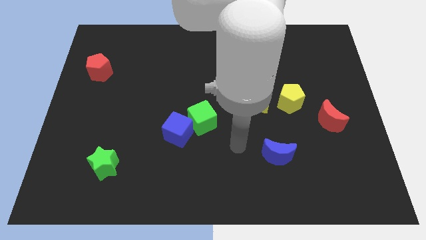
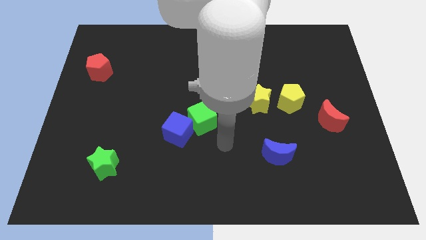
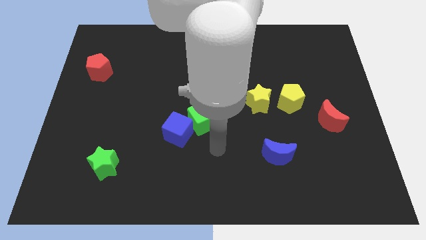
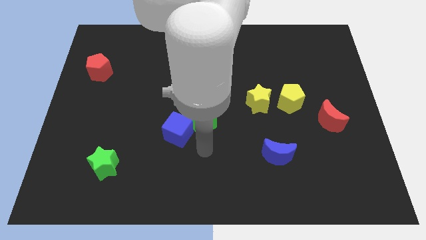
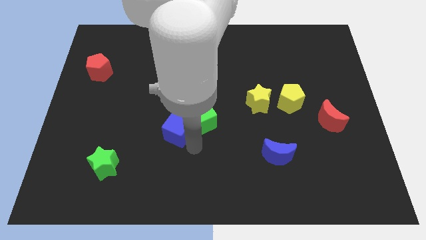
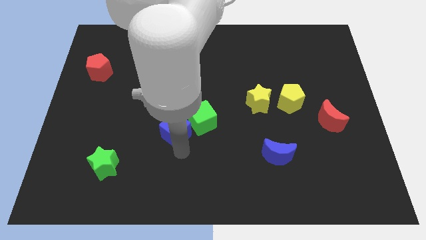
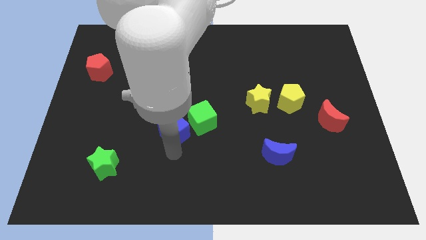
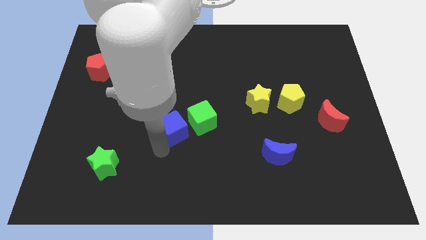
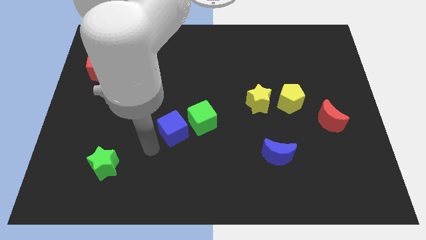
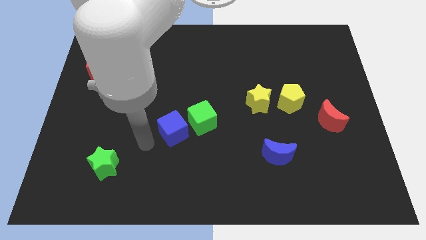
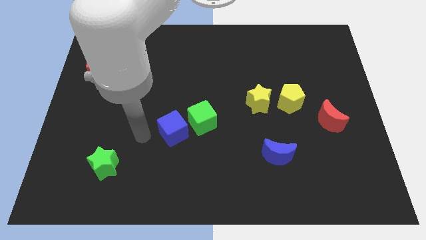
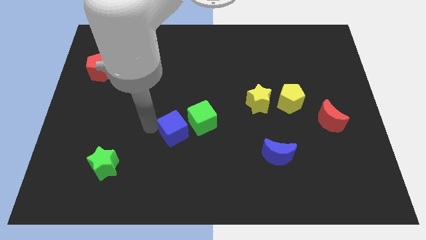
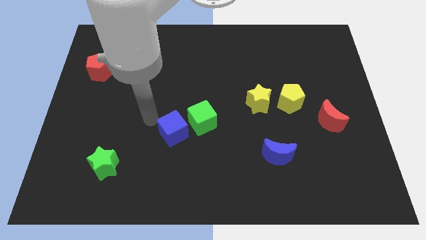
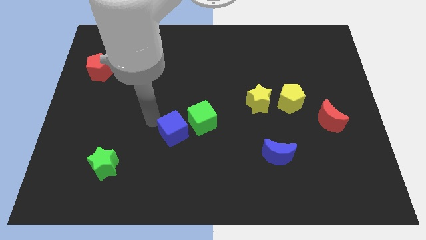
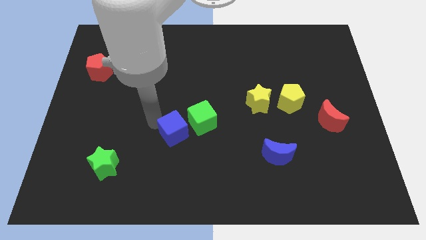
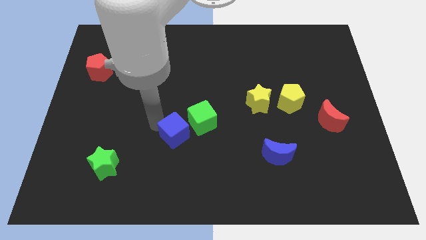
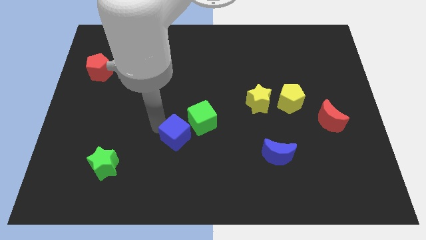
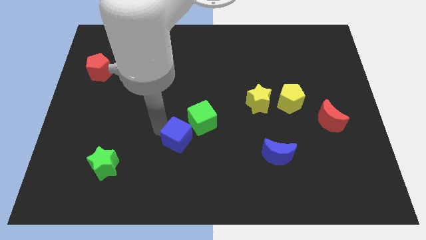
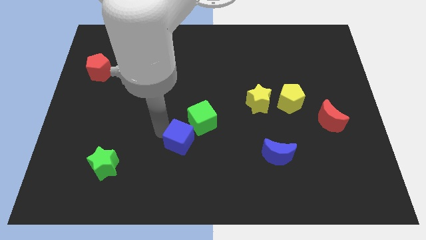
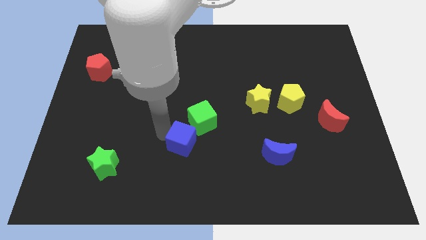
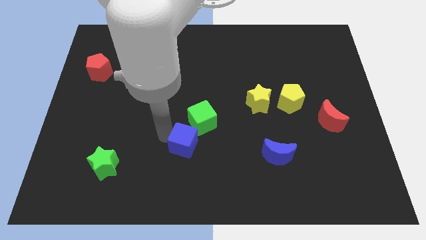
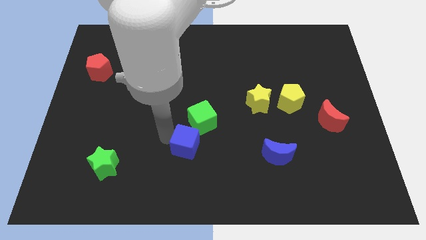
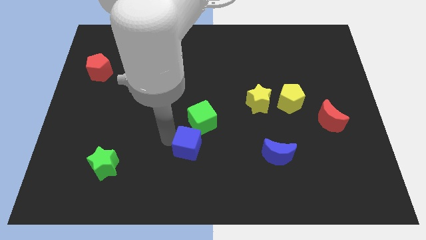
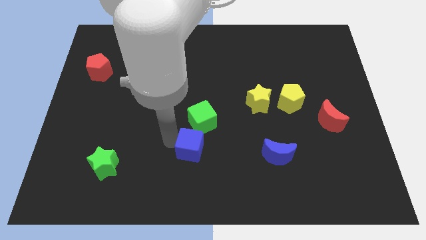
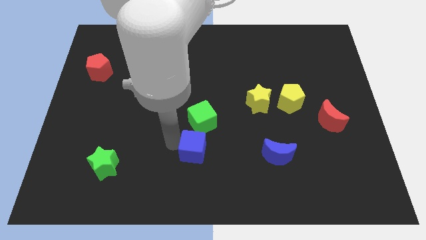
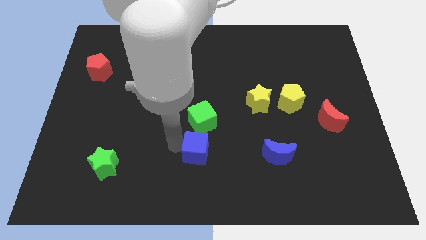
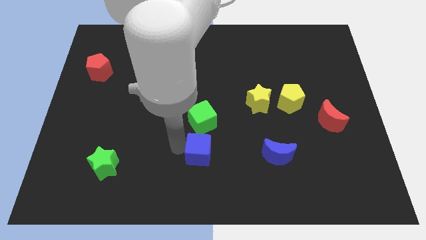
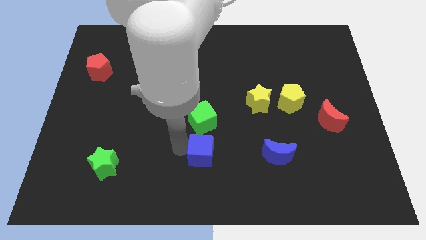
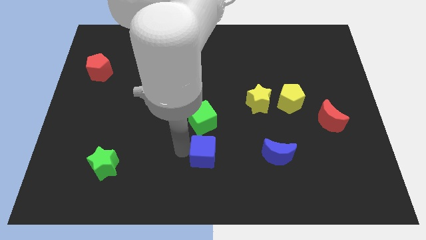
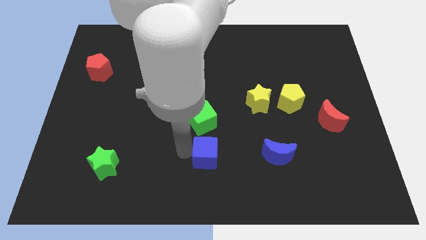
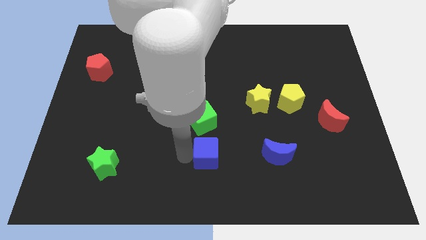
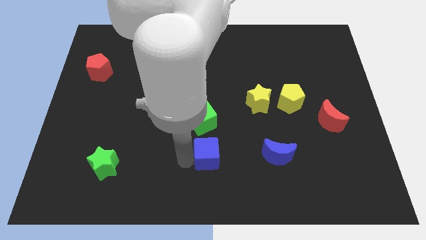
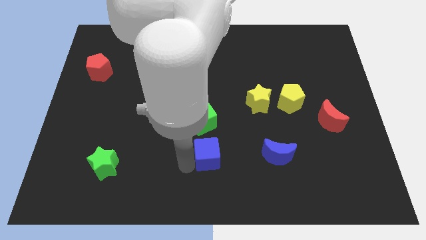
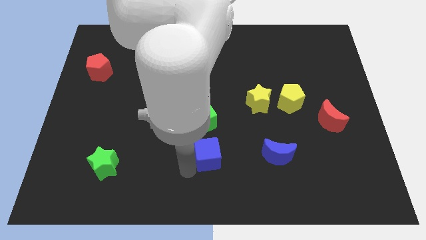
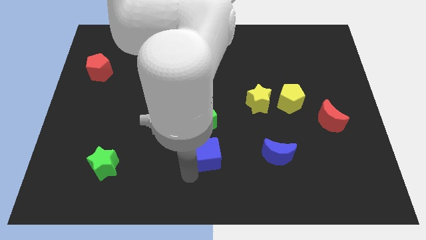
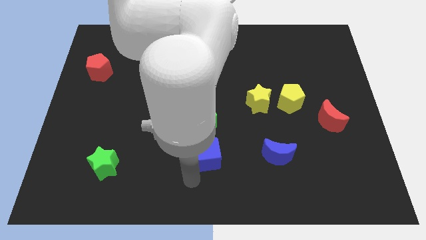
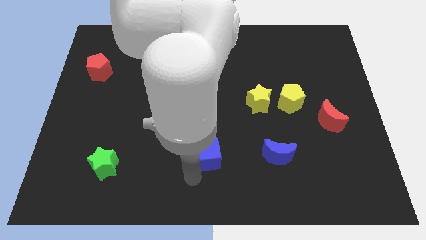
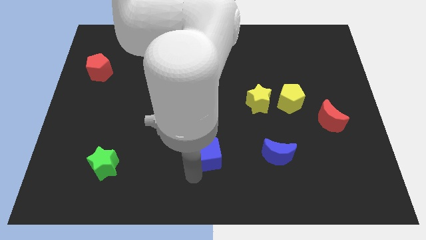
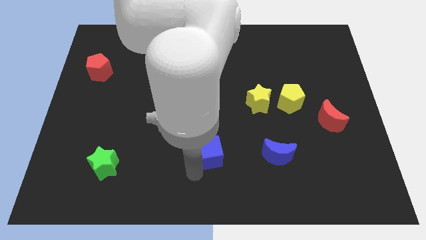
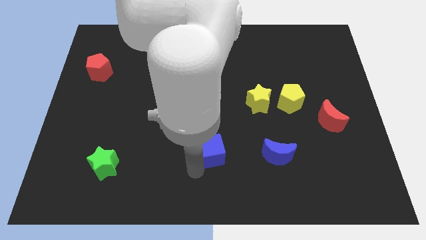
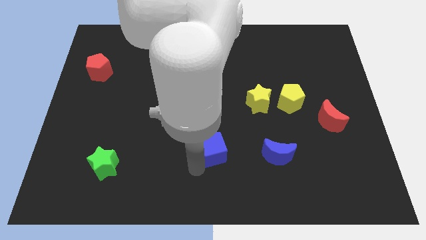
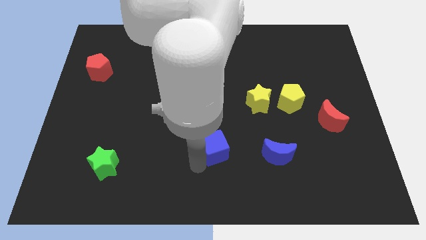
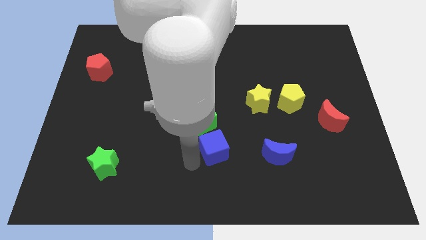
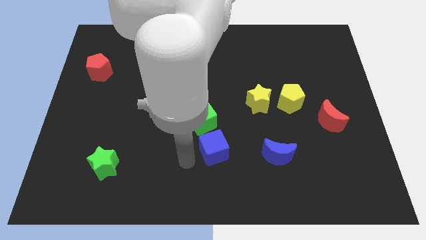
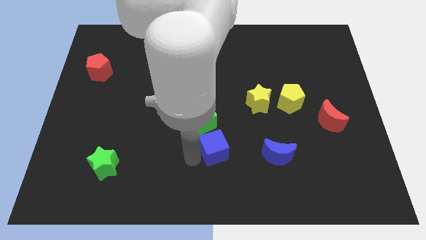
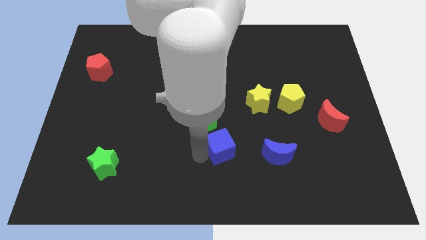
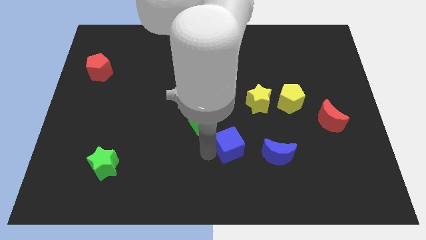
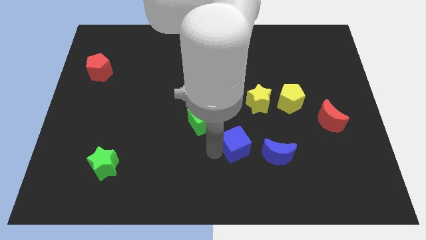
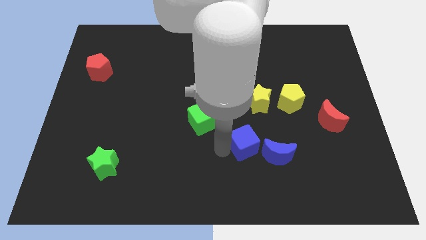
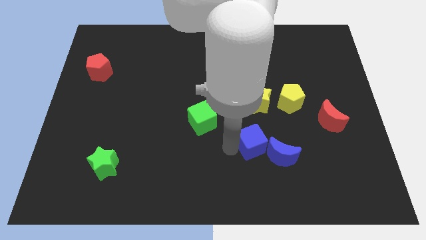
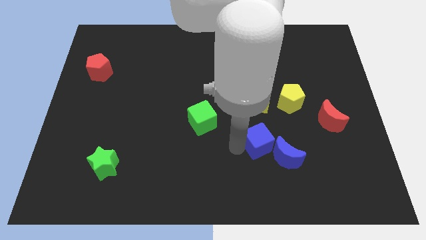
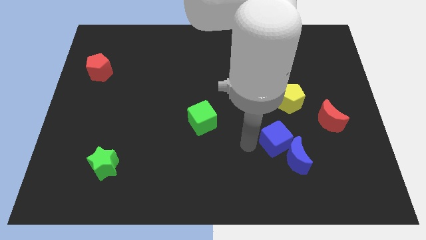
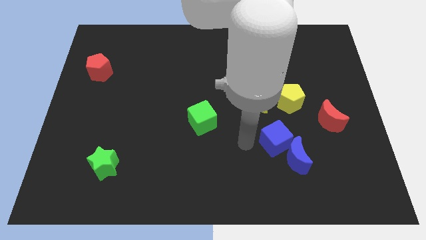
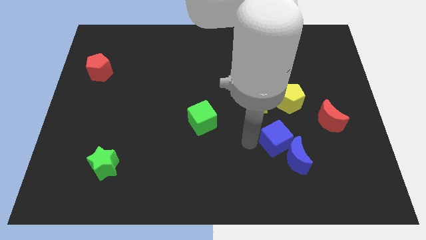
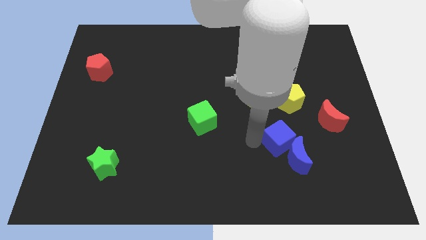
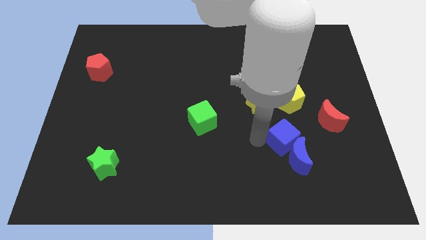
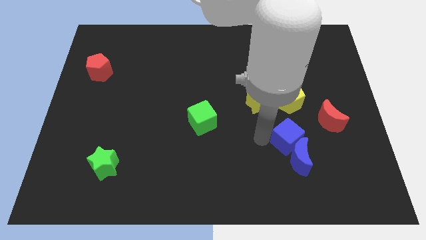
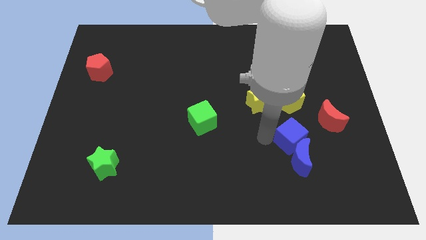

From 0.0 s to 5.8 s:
push the blue cube diagonally up and to the right of the blue moon

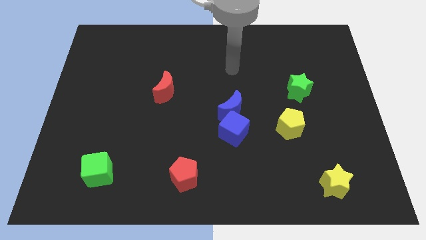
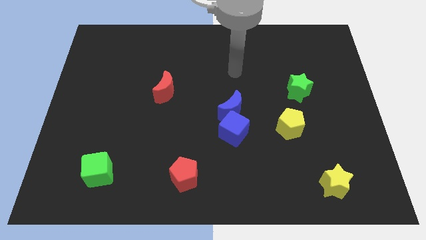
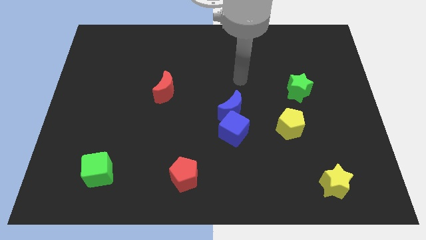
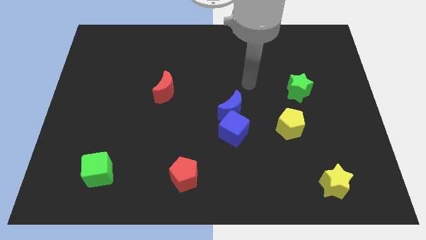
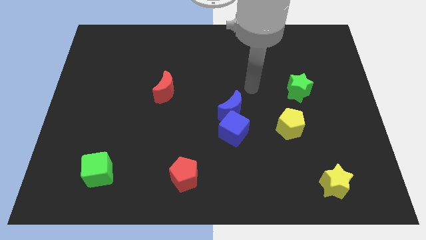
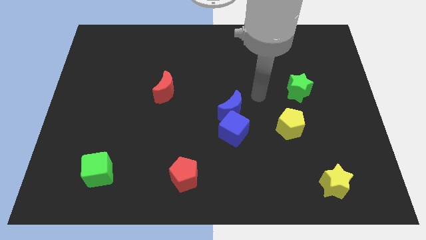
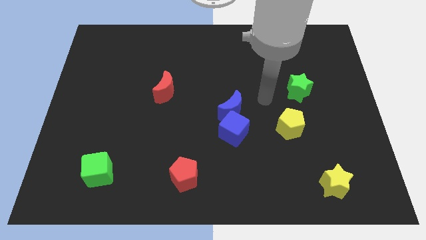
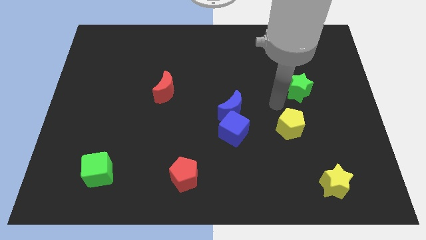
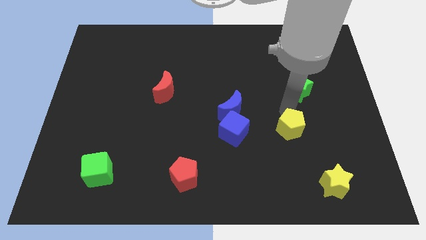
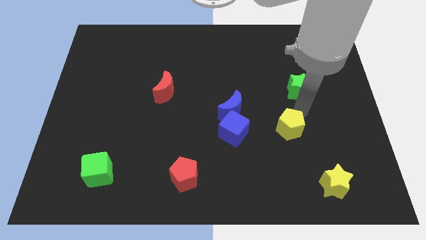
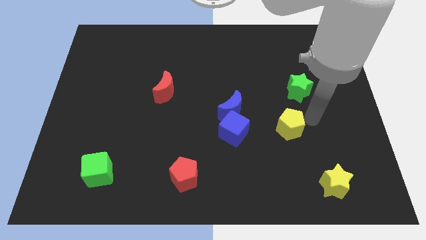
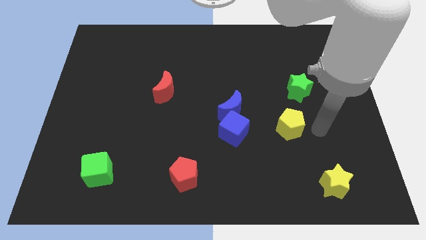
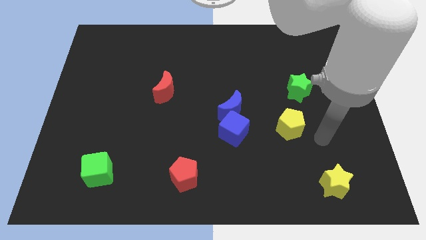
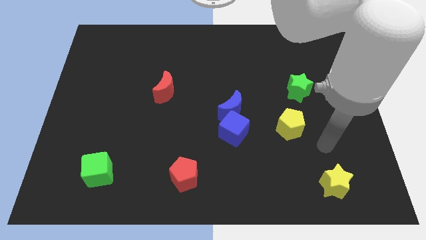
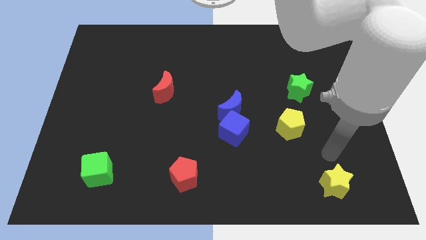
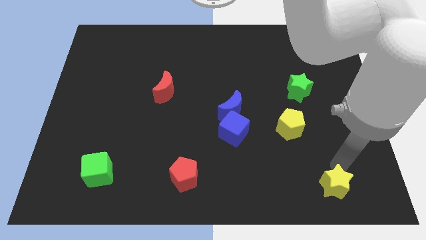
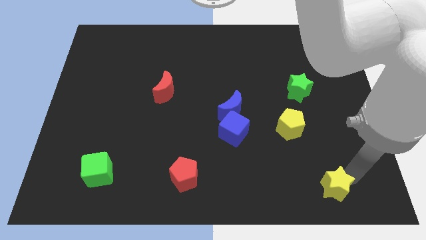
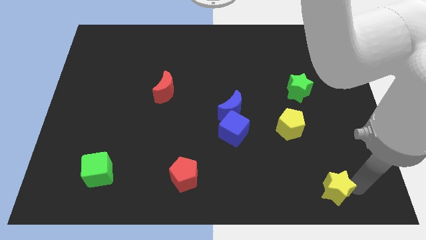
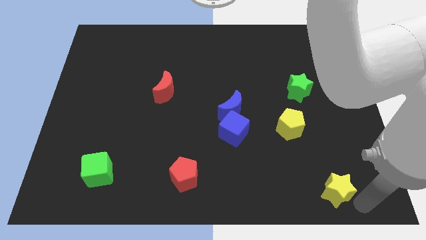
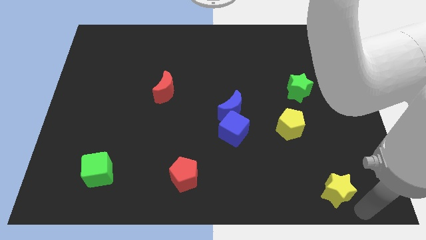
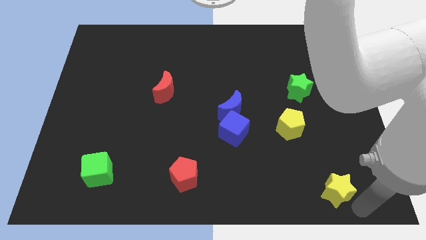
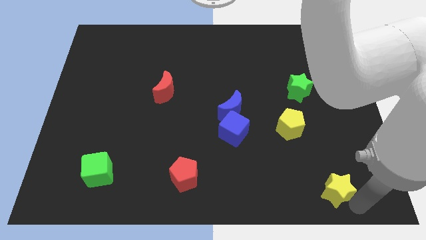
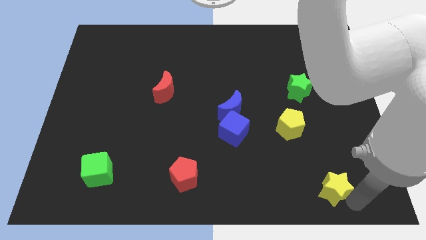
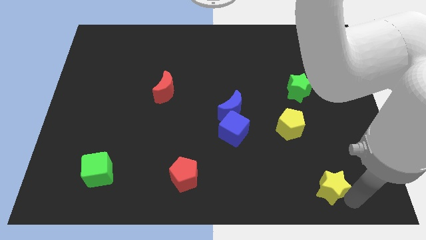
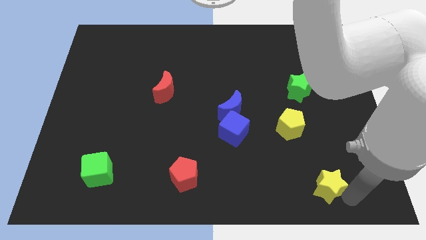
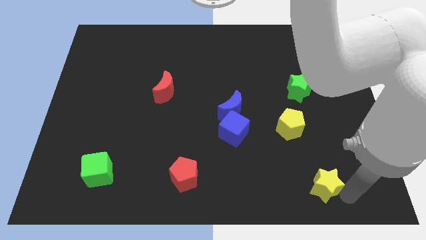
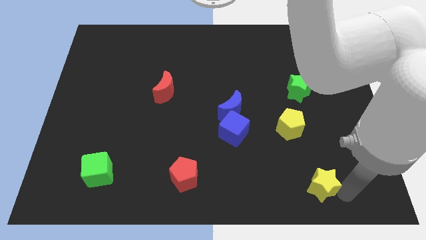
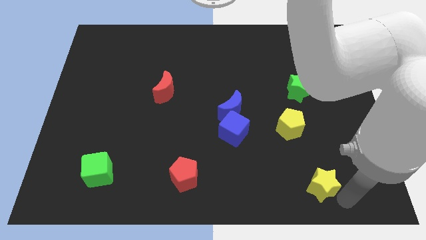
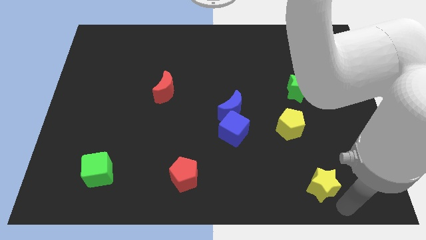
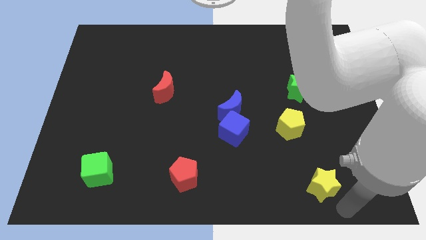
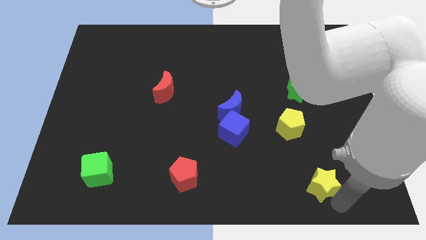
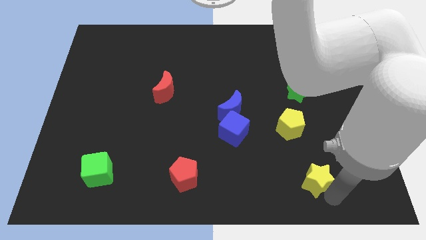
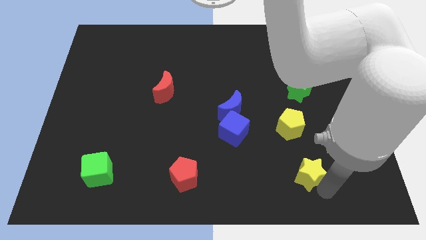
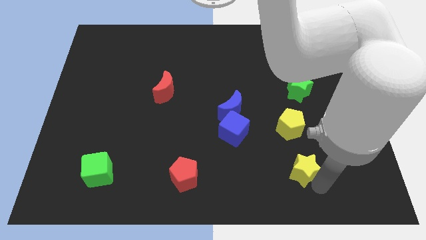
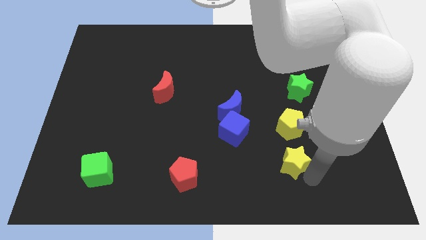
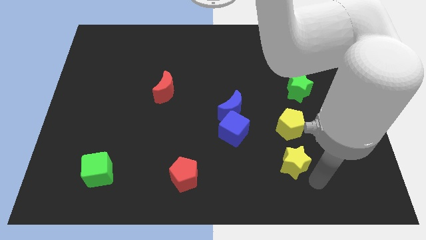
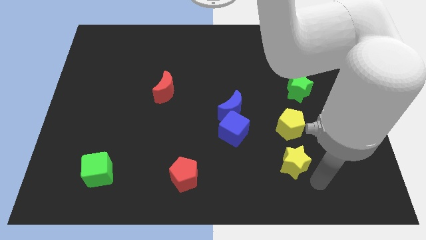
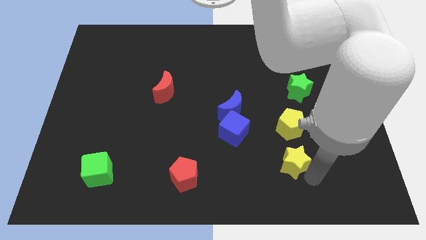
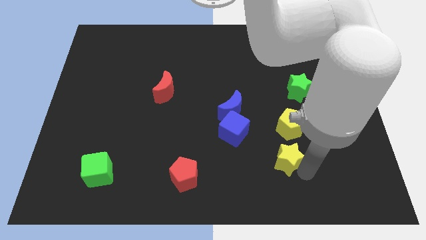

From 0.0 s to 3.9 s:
push the yellow star to the bottom left side of the yellow pentagon
